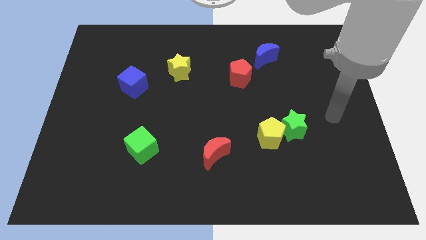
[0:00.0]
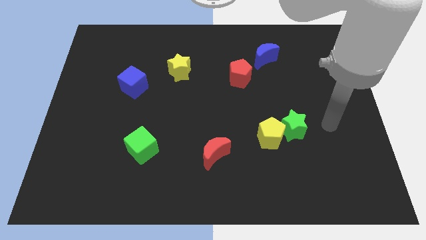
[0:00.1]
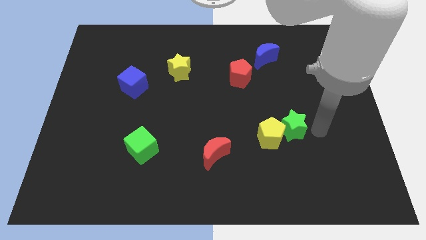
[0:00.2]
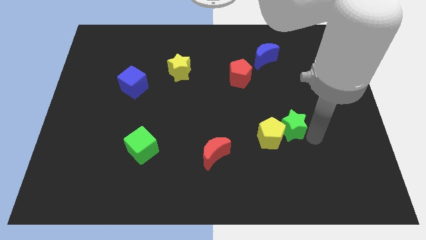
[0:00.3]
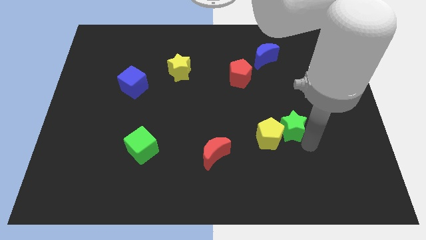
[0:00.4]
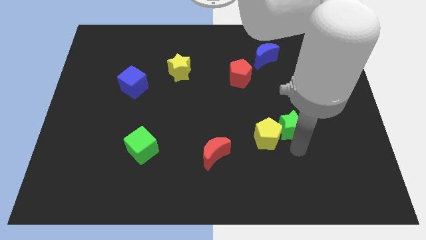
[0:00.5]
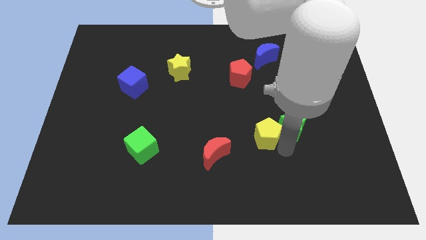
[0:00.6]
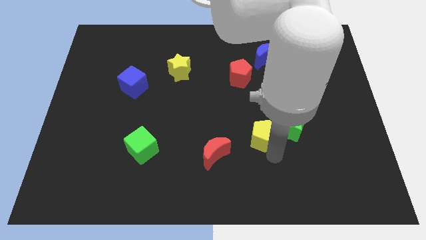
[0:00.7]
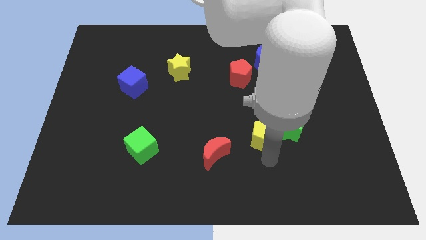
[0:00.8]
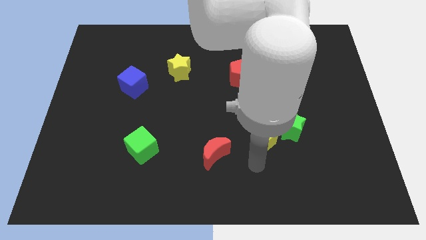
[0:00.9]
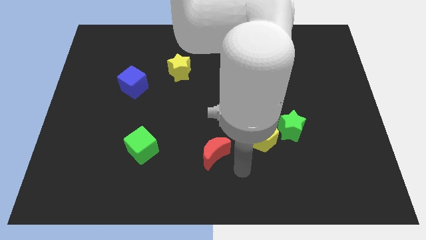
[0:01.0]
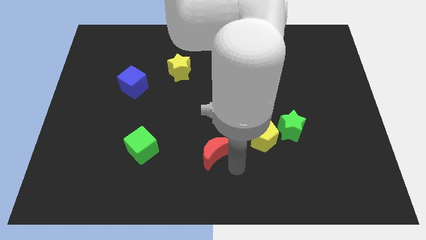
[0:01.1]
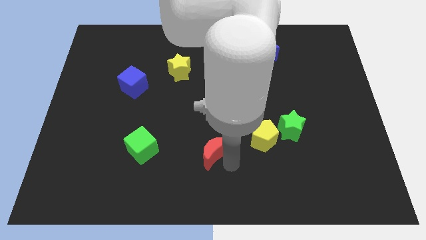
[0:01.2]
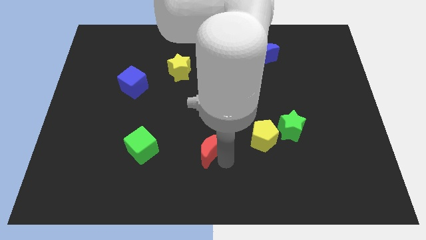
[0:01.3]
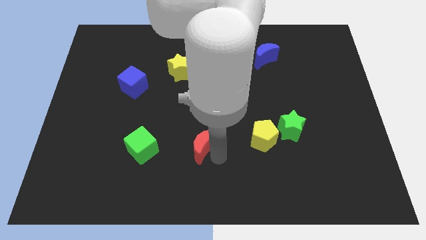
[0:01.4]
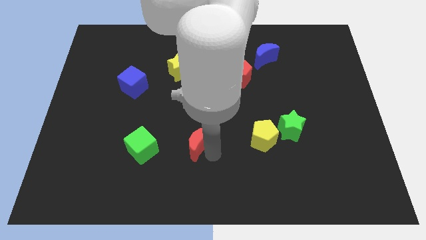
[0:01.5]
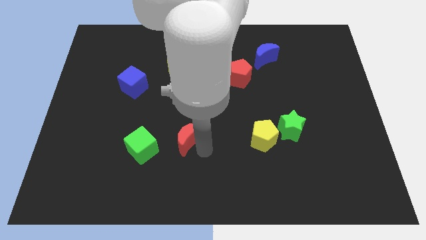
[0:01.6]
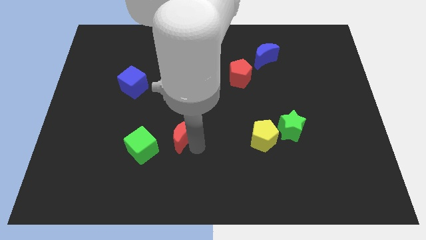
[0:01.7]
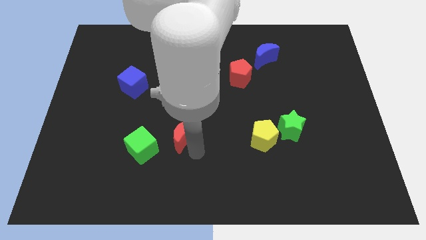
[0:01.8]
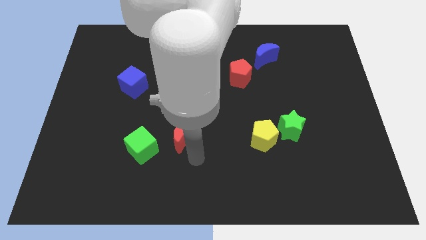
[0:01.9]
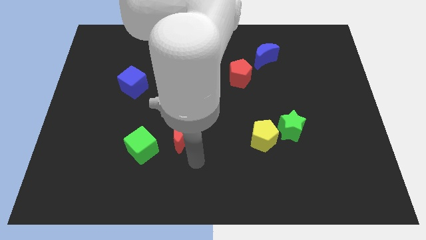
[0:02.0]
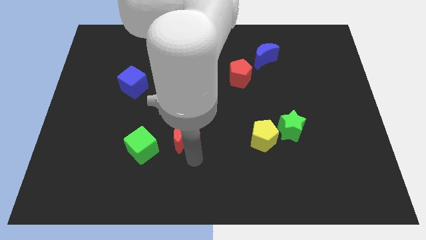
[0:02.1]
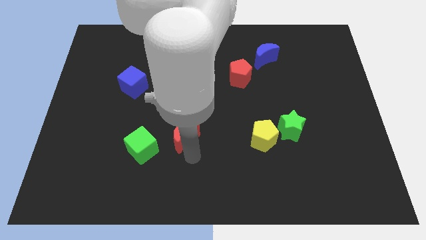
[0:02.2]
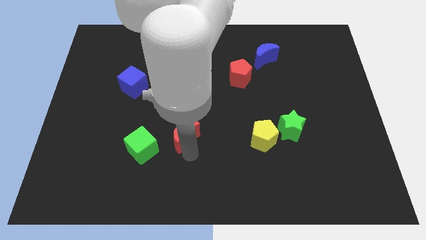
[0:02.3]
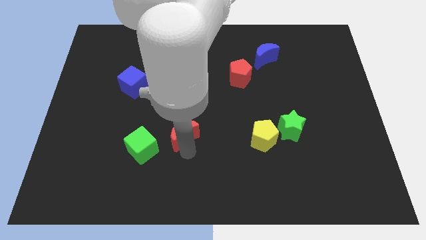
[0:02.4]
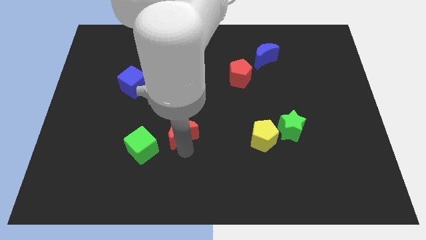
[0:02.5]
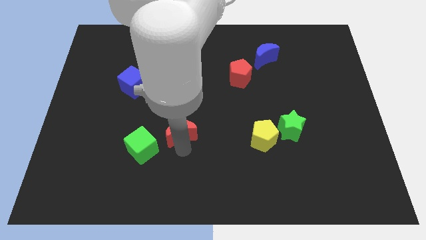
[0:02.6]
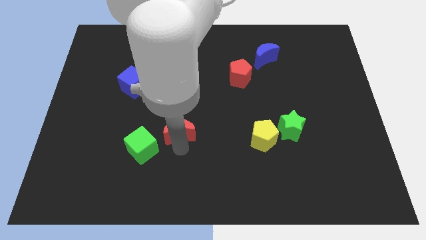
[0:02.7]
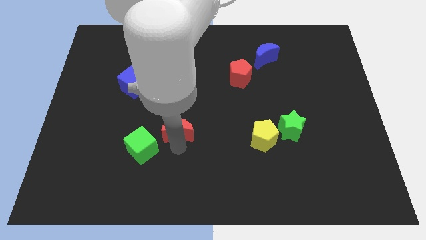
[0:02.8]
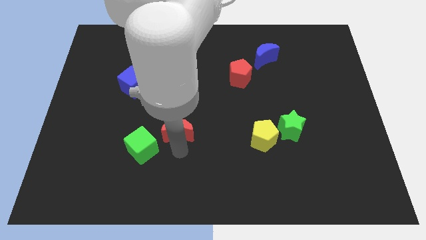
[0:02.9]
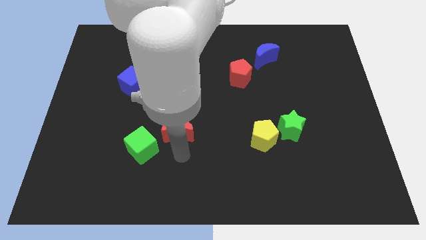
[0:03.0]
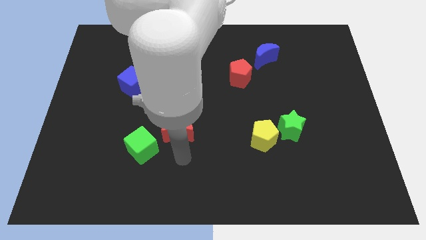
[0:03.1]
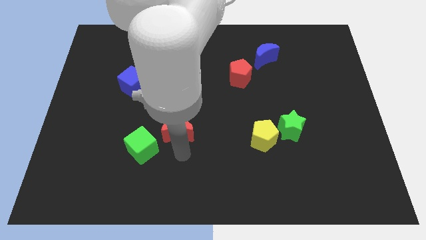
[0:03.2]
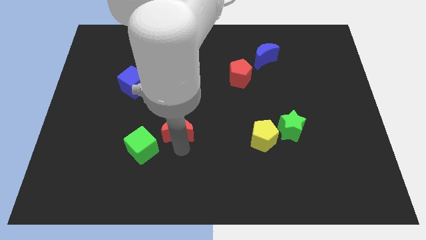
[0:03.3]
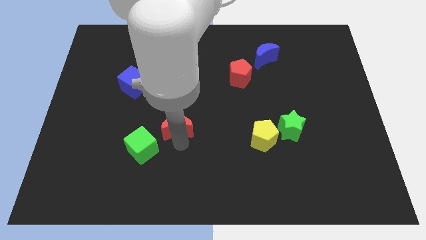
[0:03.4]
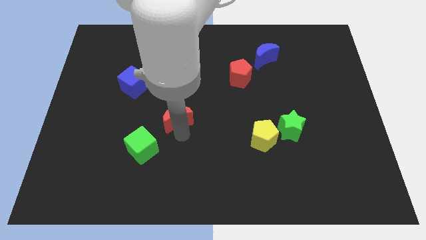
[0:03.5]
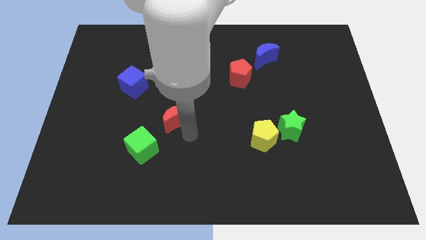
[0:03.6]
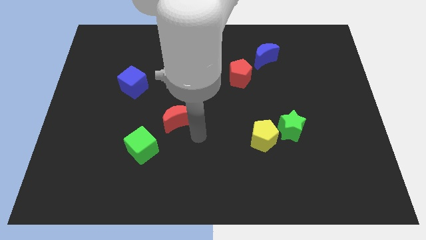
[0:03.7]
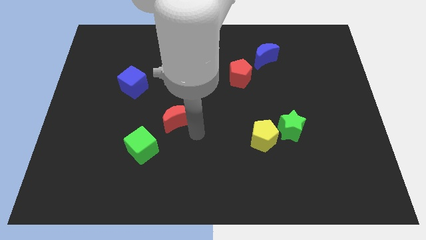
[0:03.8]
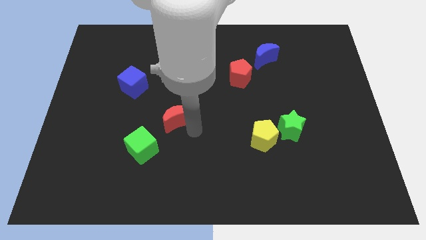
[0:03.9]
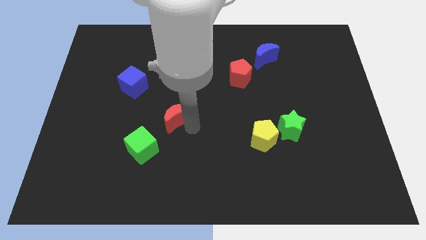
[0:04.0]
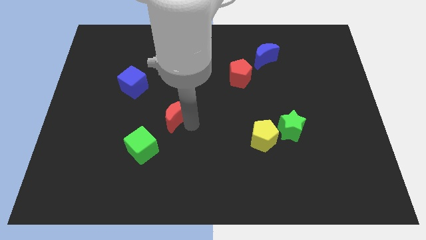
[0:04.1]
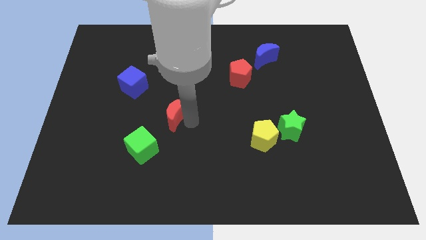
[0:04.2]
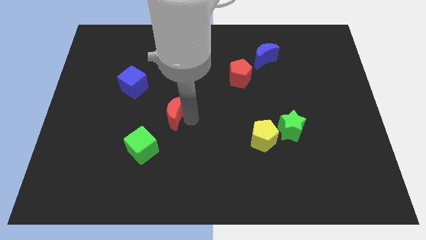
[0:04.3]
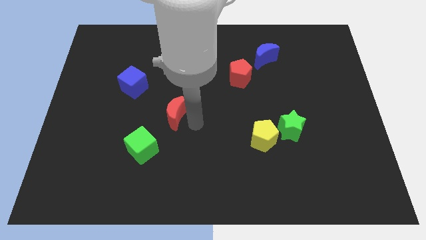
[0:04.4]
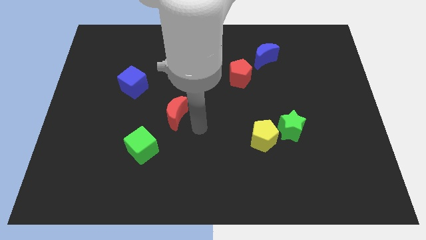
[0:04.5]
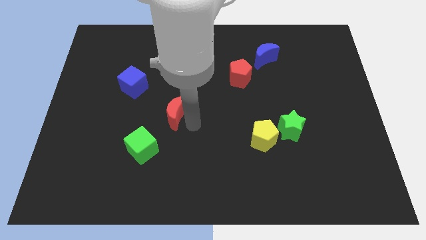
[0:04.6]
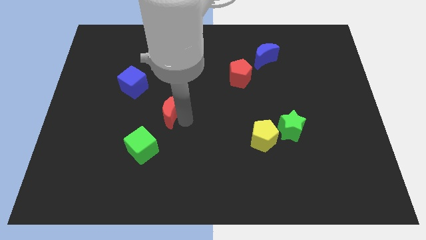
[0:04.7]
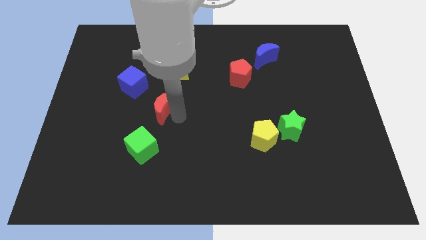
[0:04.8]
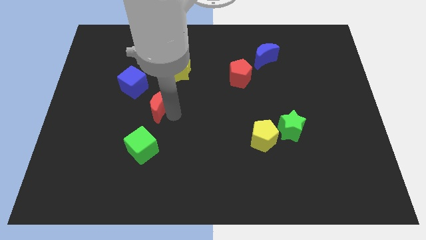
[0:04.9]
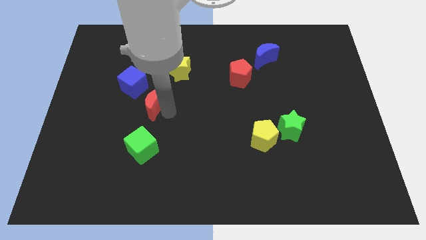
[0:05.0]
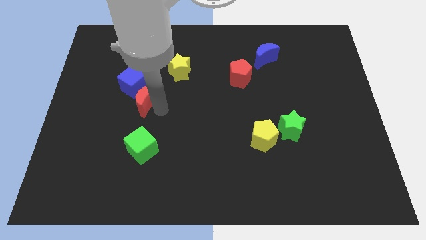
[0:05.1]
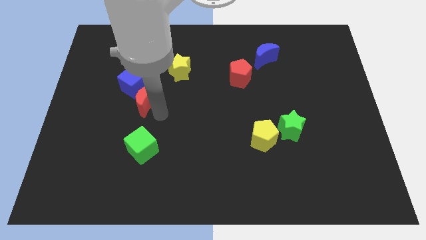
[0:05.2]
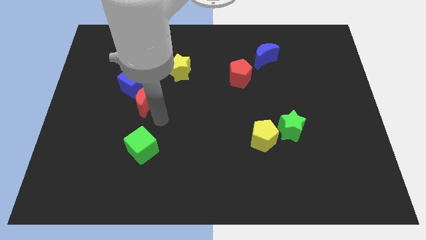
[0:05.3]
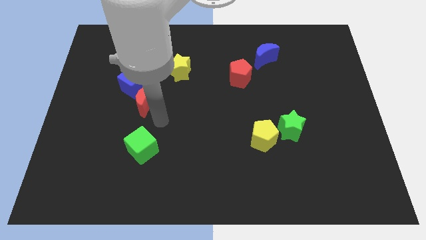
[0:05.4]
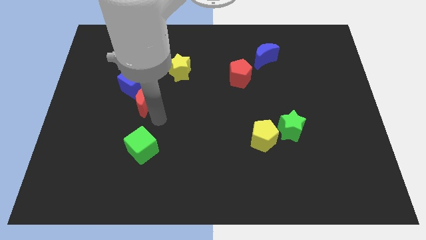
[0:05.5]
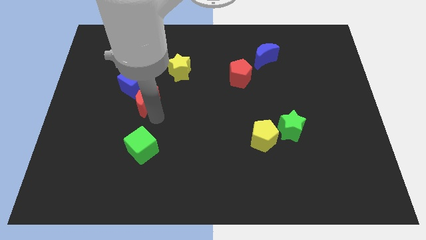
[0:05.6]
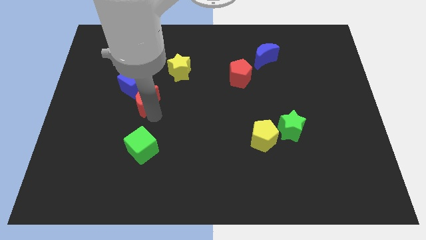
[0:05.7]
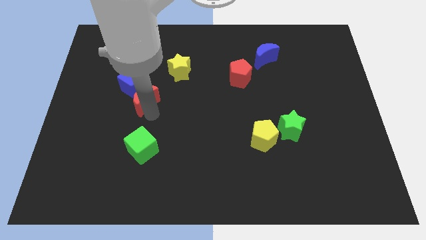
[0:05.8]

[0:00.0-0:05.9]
slide the red moon to the blue cube

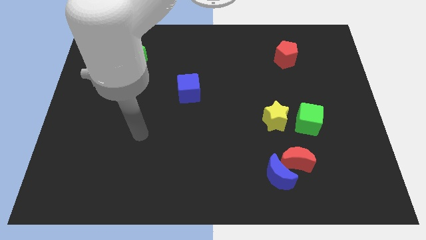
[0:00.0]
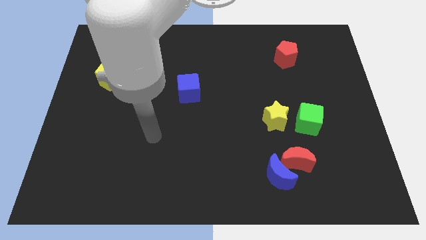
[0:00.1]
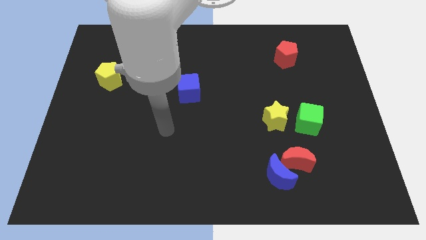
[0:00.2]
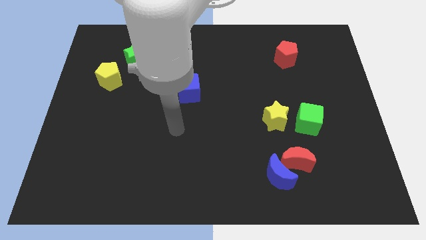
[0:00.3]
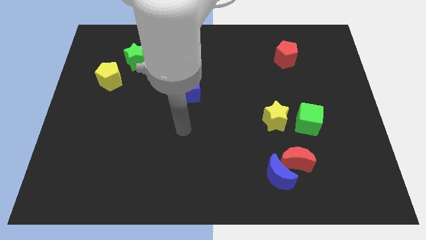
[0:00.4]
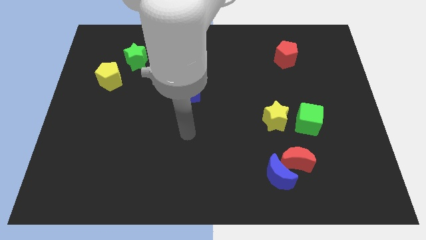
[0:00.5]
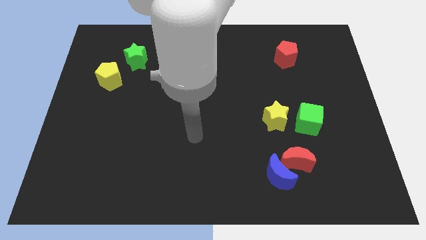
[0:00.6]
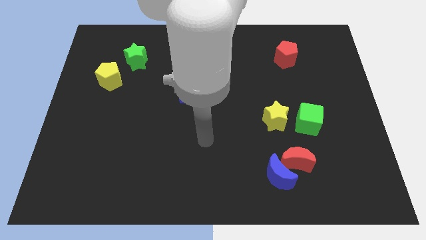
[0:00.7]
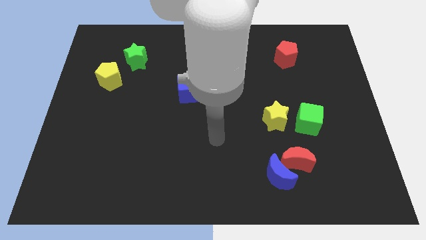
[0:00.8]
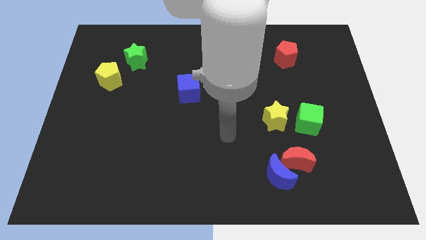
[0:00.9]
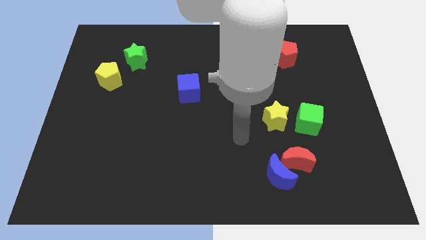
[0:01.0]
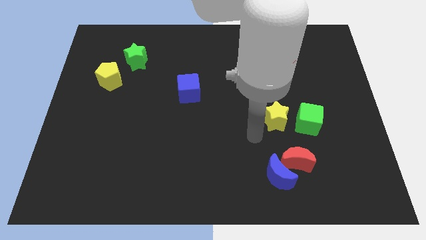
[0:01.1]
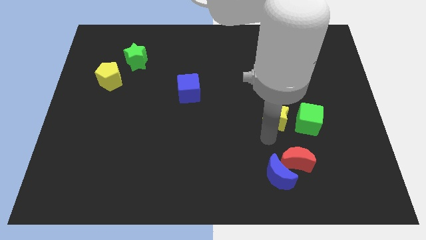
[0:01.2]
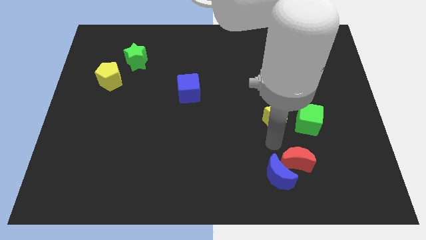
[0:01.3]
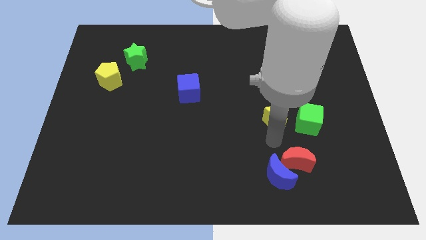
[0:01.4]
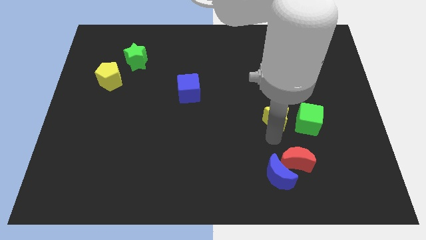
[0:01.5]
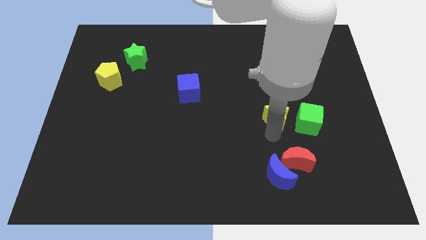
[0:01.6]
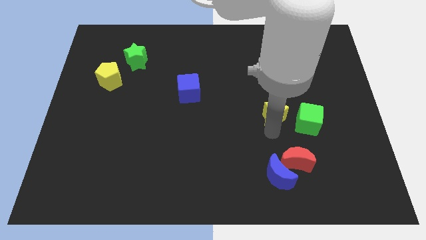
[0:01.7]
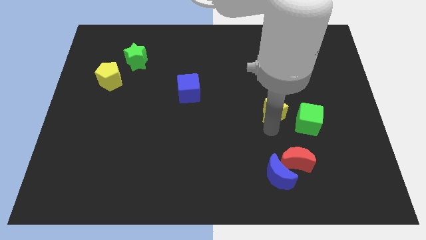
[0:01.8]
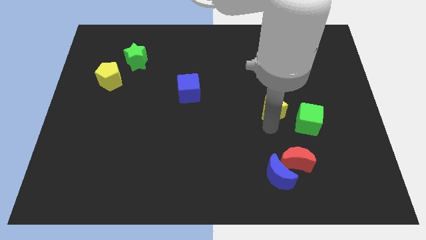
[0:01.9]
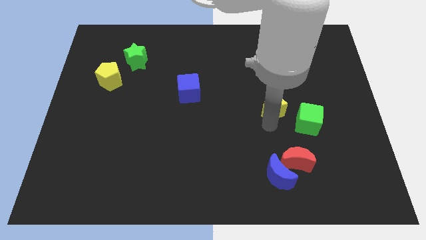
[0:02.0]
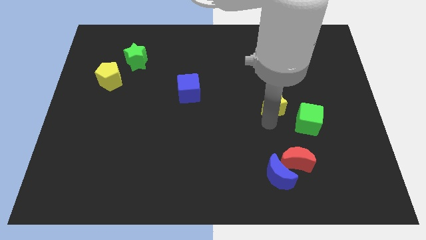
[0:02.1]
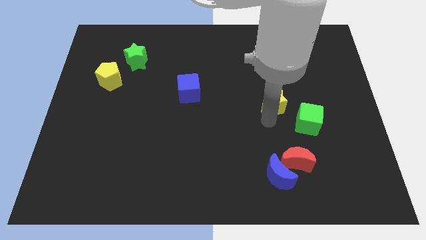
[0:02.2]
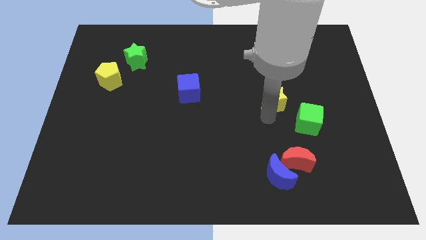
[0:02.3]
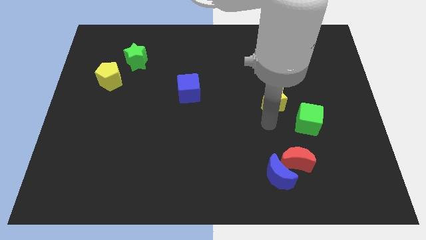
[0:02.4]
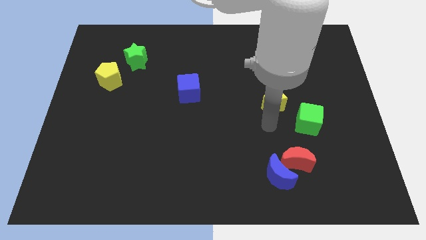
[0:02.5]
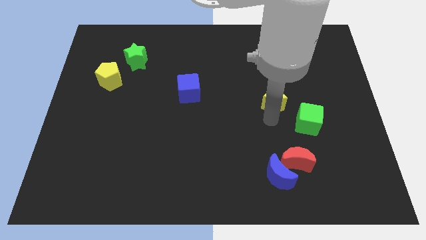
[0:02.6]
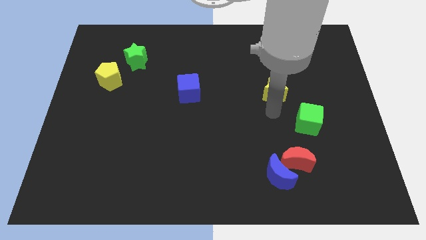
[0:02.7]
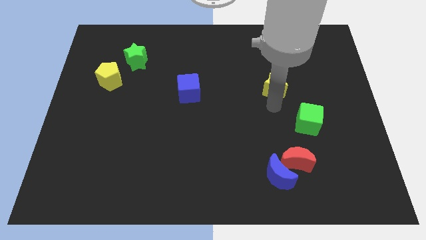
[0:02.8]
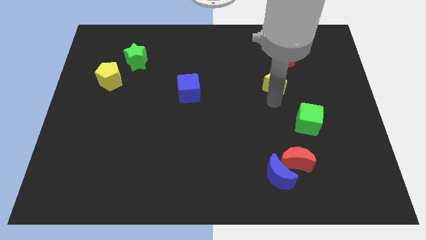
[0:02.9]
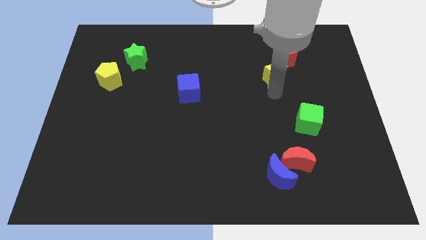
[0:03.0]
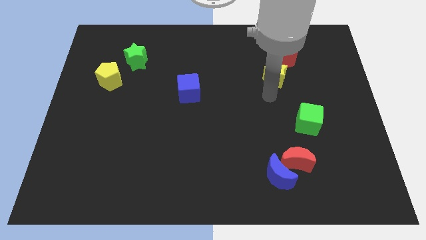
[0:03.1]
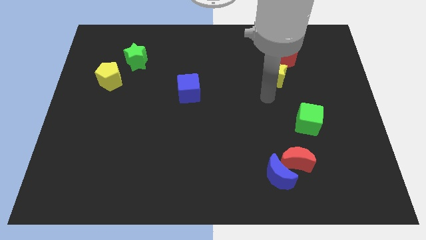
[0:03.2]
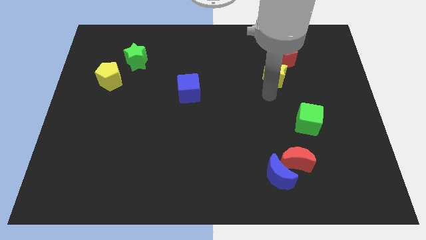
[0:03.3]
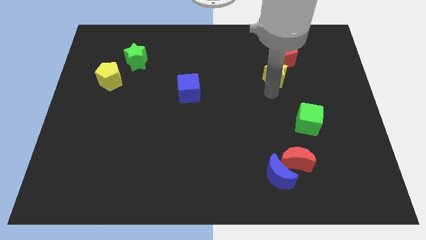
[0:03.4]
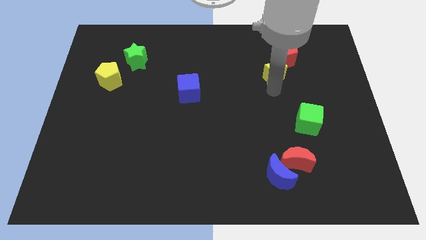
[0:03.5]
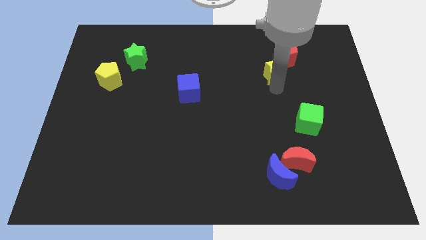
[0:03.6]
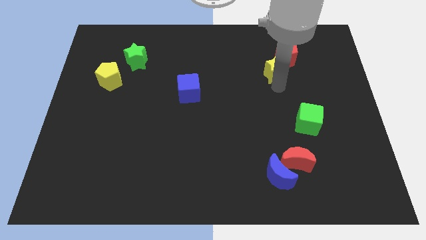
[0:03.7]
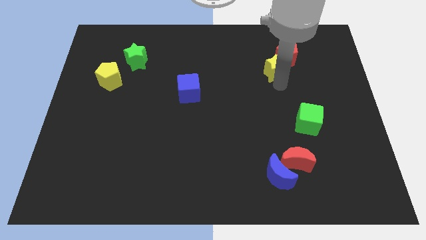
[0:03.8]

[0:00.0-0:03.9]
push the yellow star next to the red pentagon
